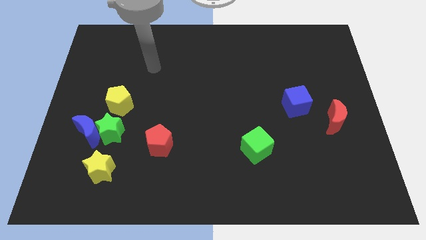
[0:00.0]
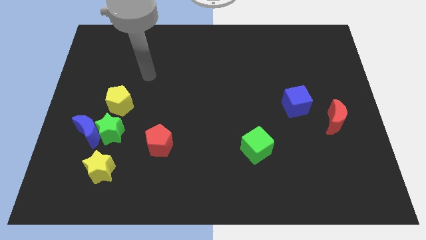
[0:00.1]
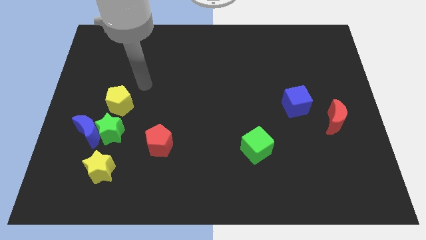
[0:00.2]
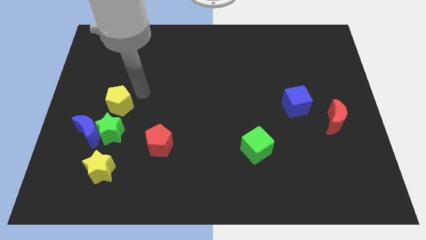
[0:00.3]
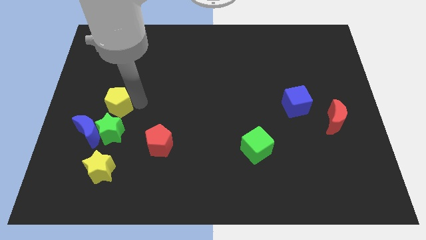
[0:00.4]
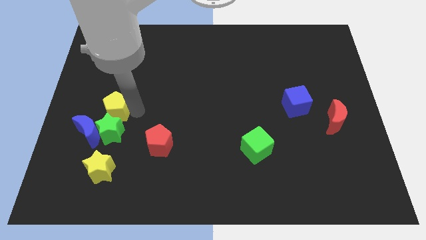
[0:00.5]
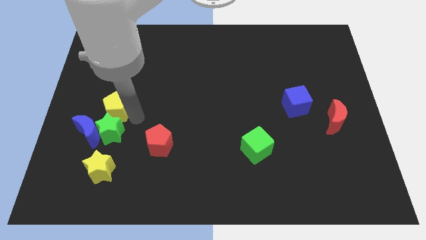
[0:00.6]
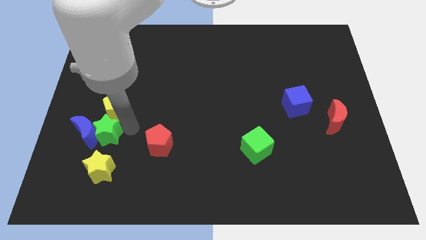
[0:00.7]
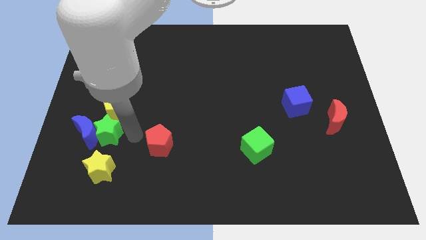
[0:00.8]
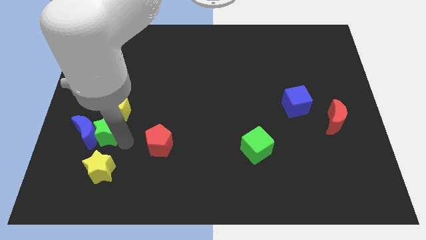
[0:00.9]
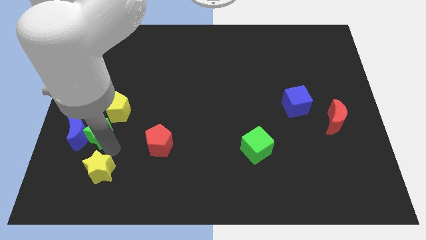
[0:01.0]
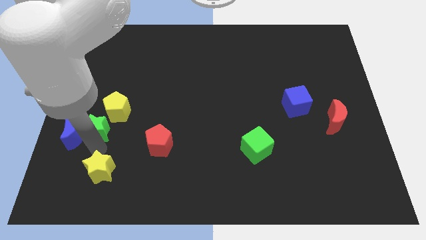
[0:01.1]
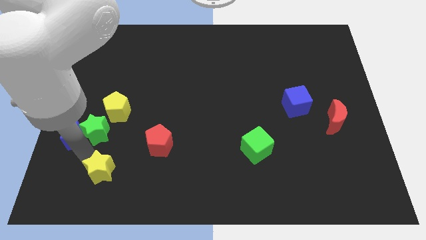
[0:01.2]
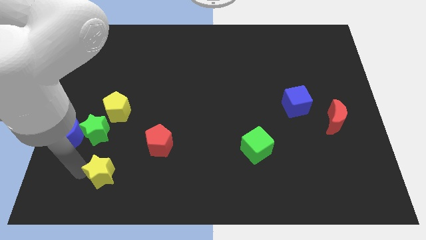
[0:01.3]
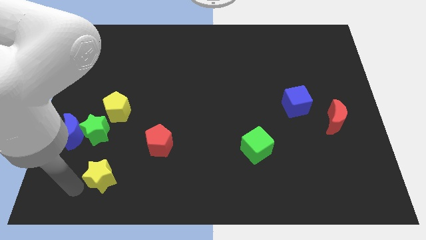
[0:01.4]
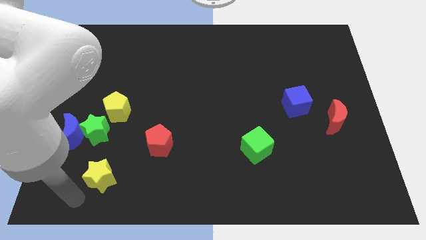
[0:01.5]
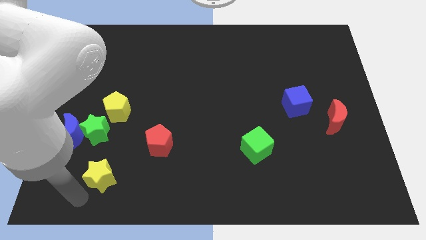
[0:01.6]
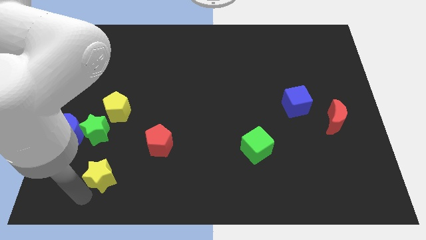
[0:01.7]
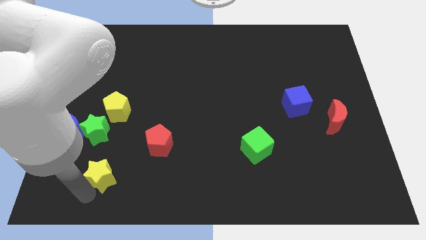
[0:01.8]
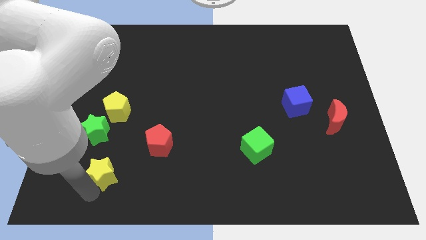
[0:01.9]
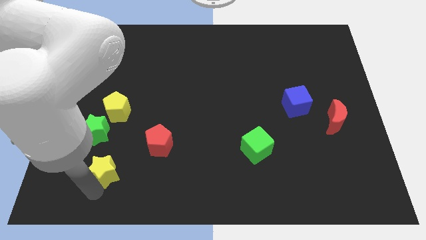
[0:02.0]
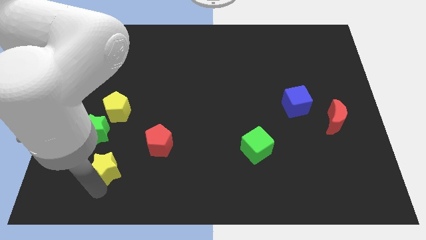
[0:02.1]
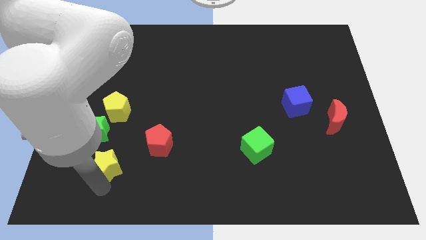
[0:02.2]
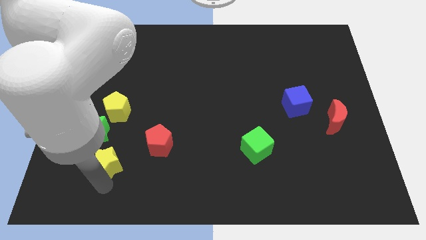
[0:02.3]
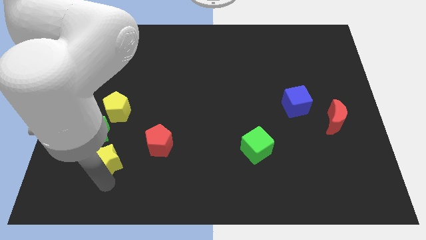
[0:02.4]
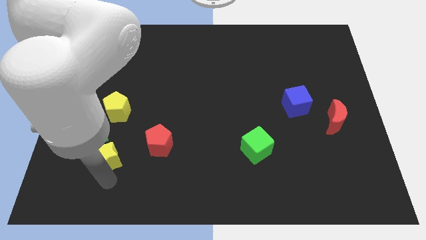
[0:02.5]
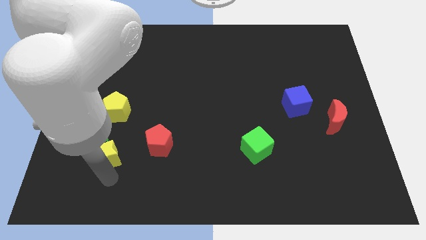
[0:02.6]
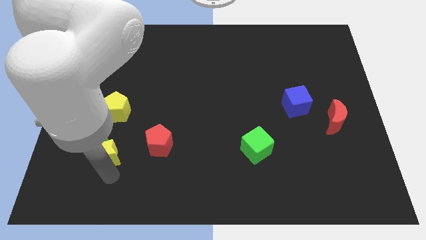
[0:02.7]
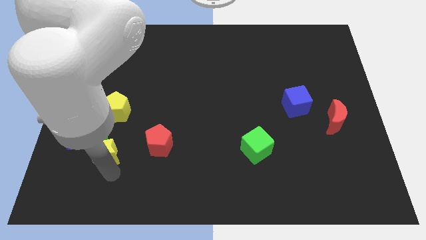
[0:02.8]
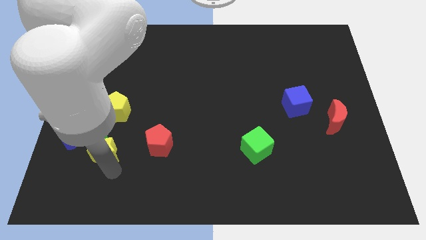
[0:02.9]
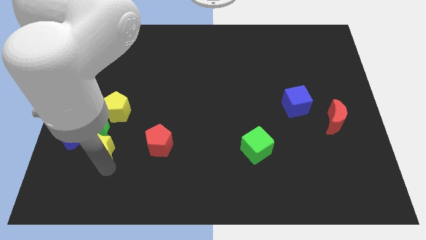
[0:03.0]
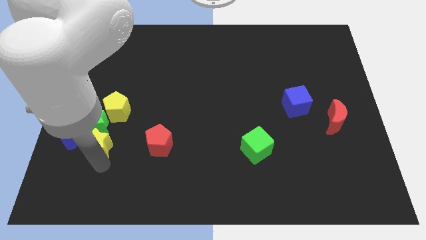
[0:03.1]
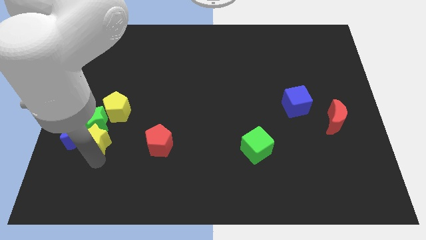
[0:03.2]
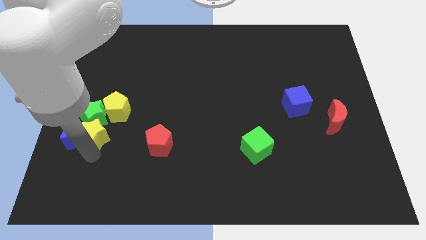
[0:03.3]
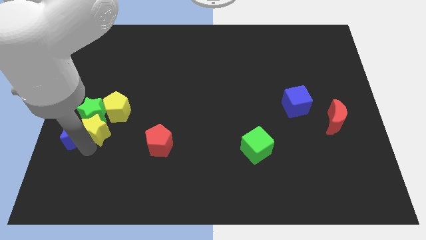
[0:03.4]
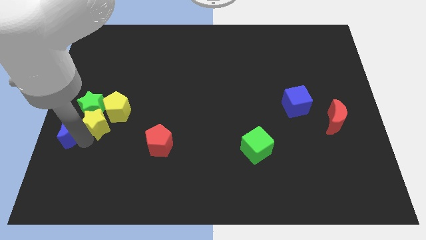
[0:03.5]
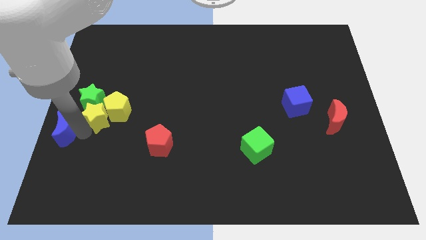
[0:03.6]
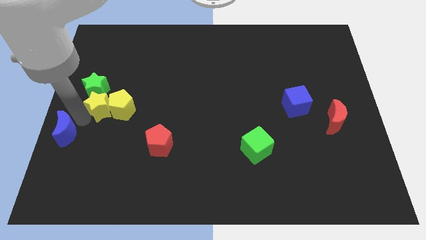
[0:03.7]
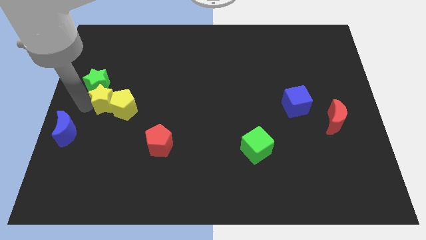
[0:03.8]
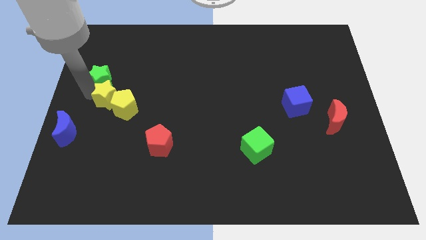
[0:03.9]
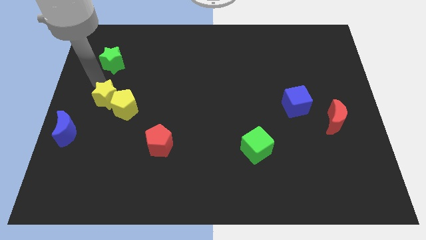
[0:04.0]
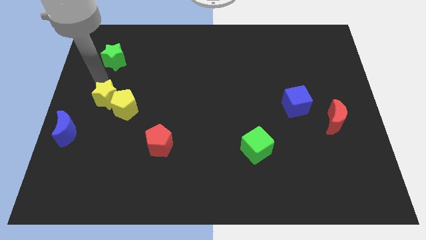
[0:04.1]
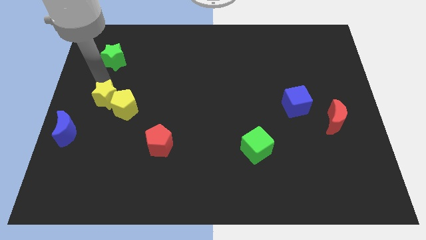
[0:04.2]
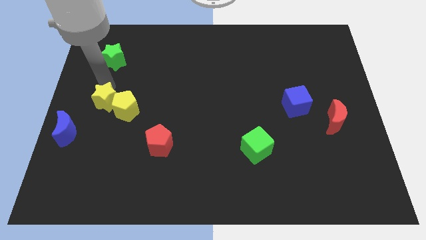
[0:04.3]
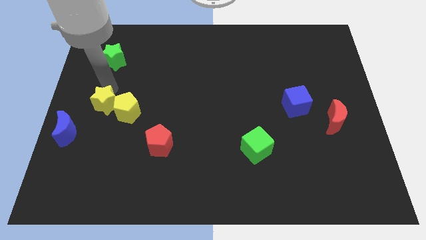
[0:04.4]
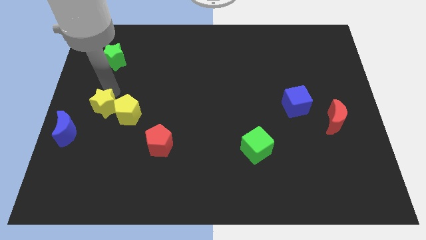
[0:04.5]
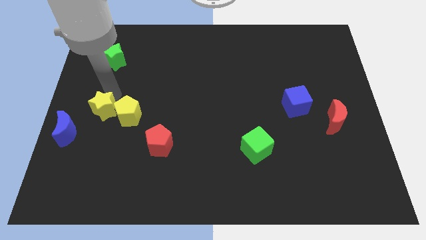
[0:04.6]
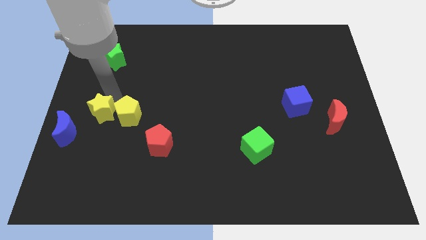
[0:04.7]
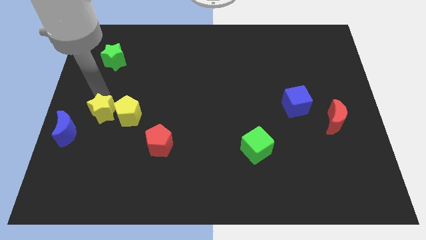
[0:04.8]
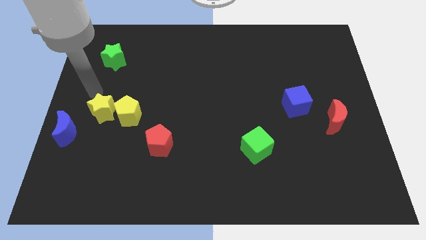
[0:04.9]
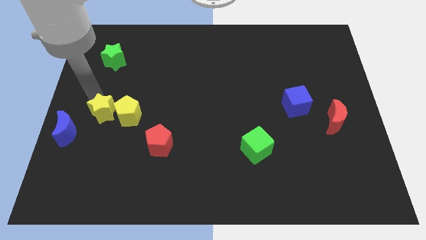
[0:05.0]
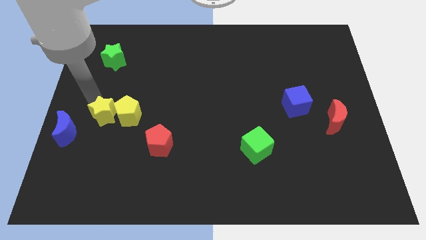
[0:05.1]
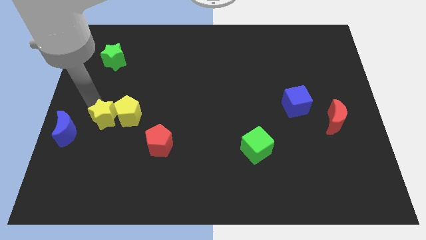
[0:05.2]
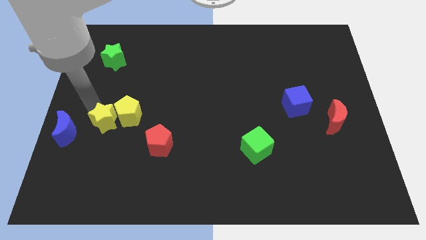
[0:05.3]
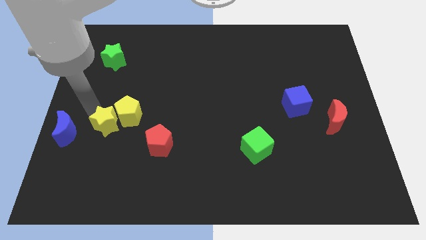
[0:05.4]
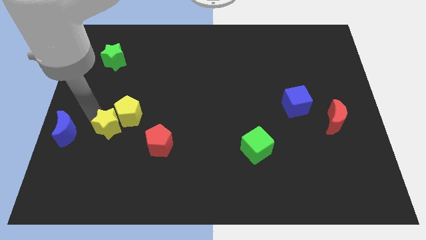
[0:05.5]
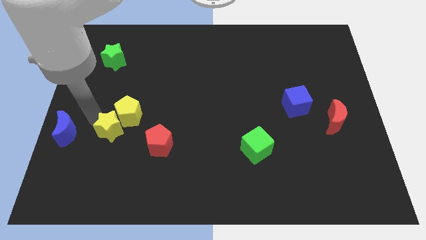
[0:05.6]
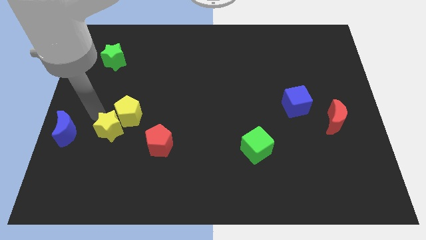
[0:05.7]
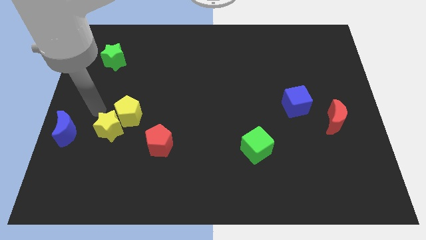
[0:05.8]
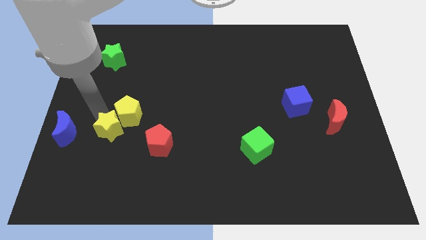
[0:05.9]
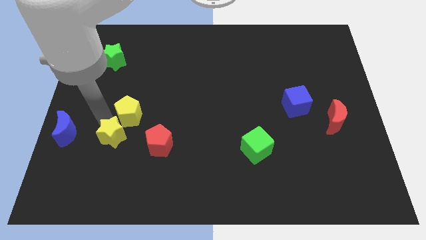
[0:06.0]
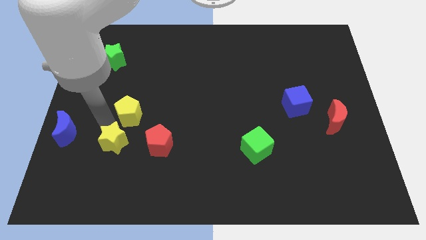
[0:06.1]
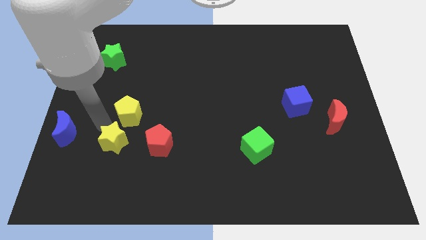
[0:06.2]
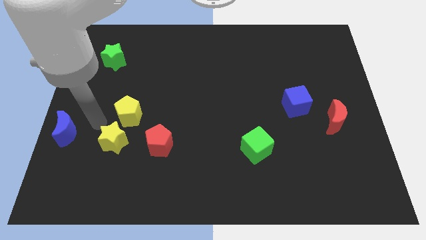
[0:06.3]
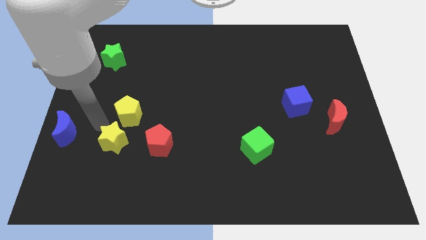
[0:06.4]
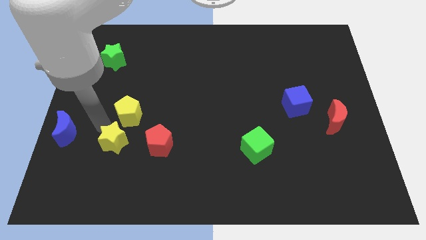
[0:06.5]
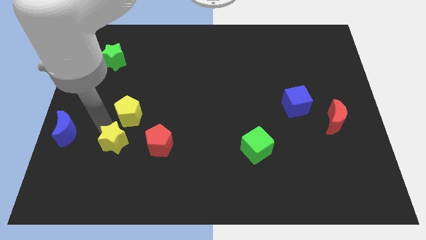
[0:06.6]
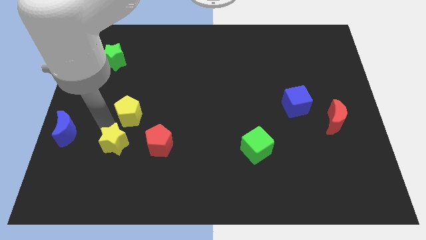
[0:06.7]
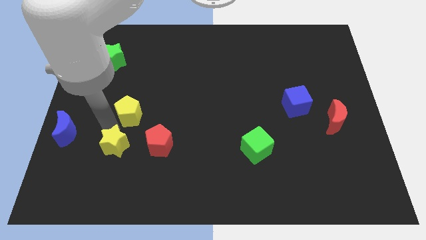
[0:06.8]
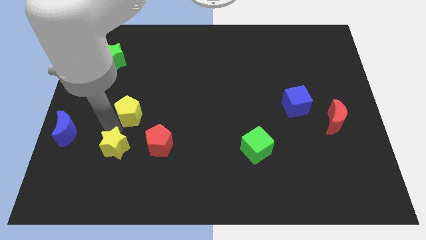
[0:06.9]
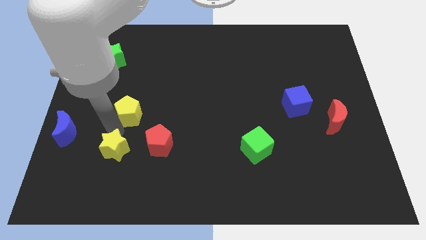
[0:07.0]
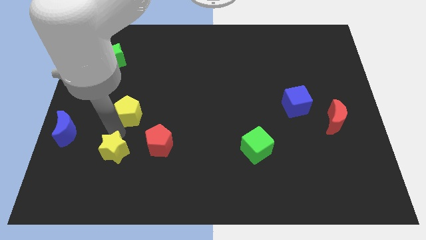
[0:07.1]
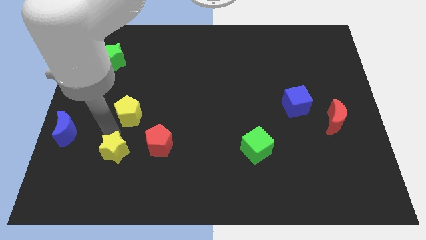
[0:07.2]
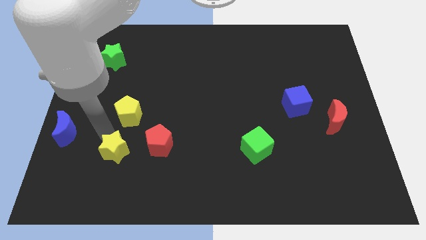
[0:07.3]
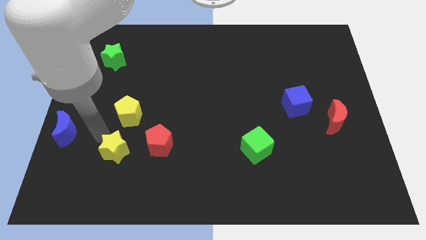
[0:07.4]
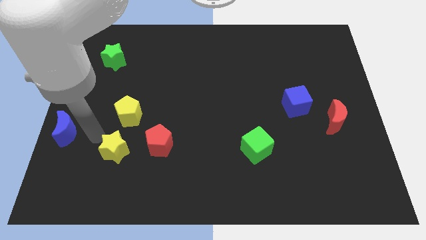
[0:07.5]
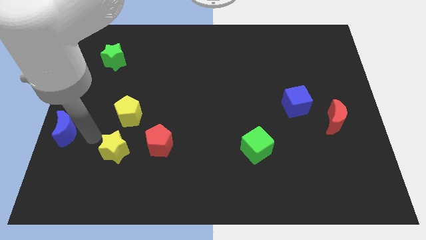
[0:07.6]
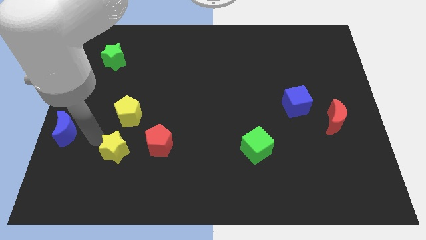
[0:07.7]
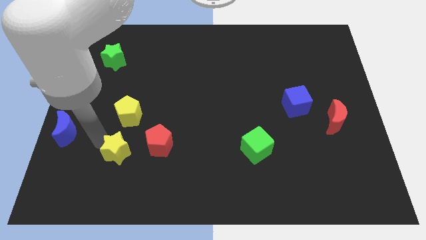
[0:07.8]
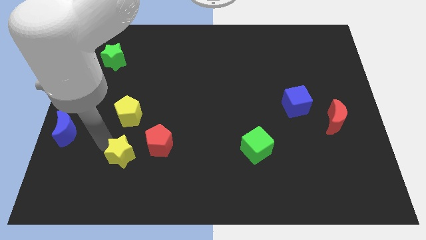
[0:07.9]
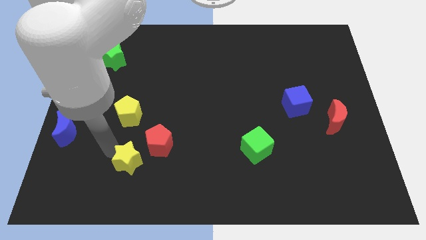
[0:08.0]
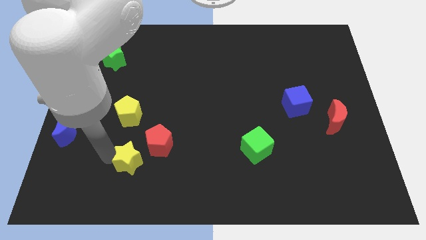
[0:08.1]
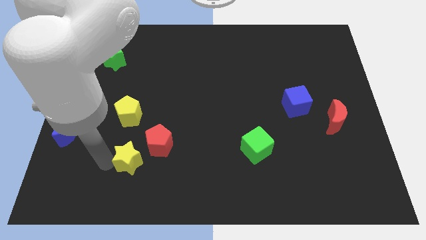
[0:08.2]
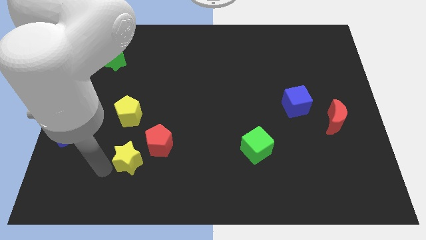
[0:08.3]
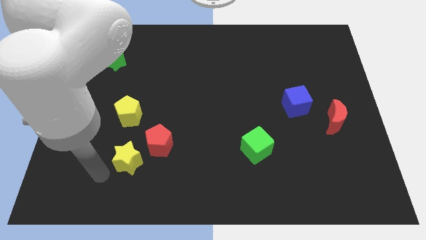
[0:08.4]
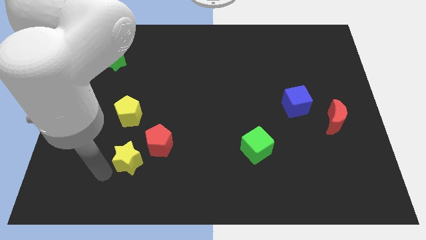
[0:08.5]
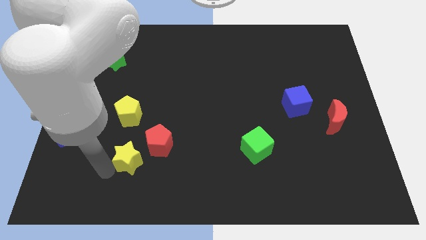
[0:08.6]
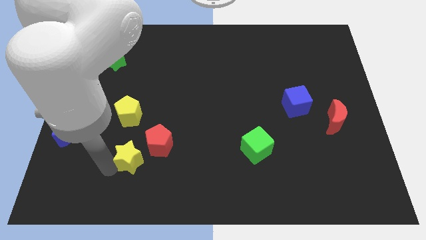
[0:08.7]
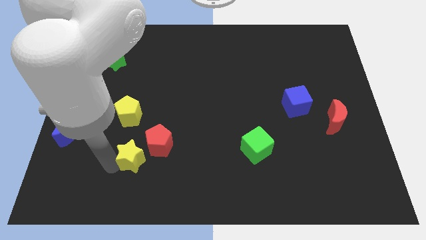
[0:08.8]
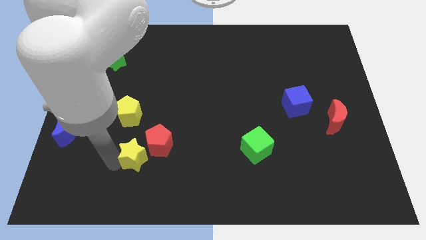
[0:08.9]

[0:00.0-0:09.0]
slide the yellow star close to the red pentagon
